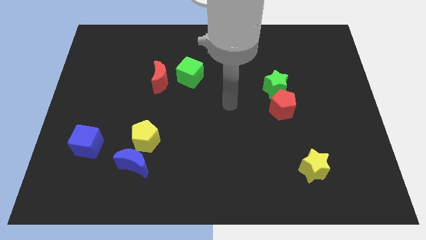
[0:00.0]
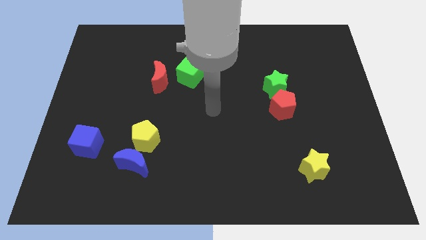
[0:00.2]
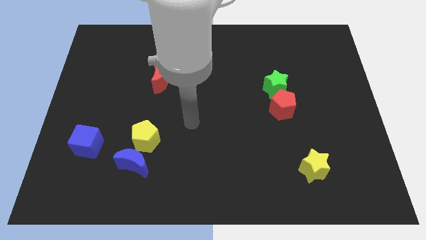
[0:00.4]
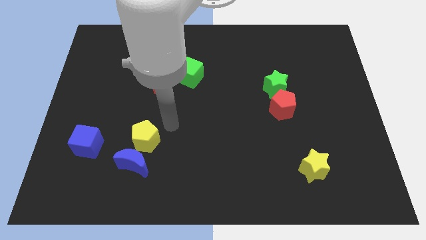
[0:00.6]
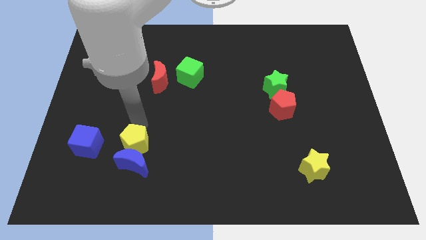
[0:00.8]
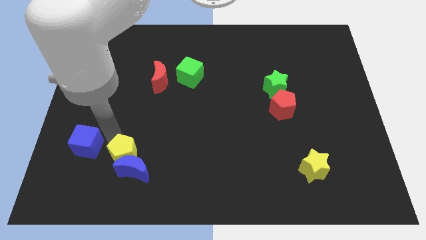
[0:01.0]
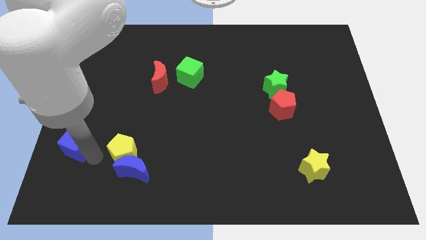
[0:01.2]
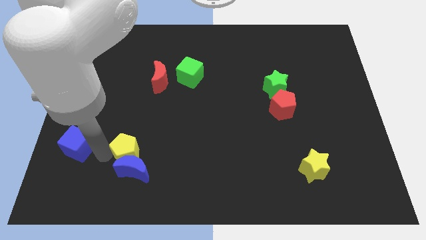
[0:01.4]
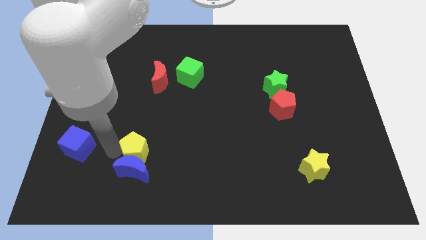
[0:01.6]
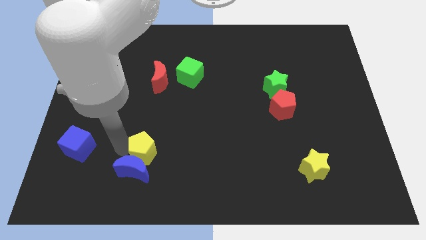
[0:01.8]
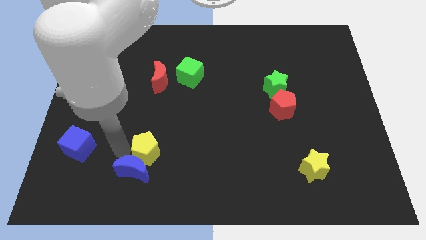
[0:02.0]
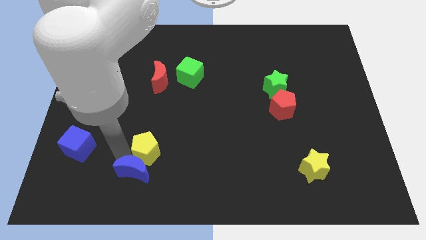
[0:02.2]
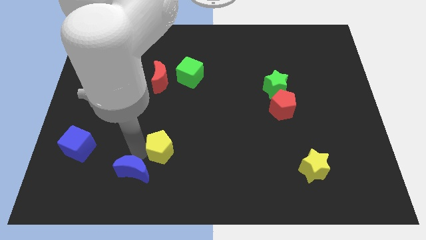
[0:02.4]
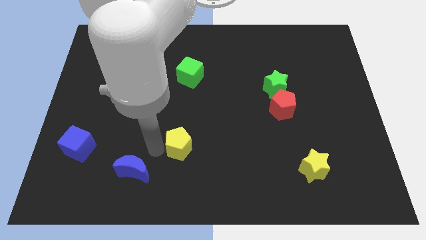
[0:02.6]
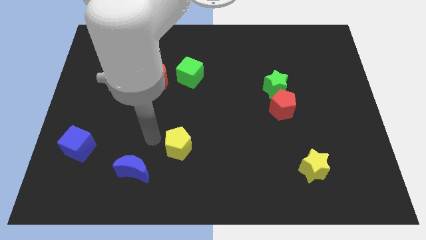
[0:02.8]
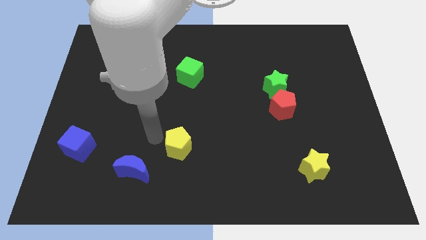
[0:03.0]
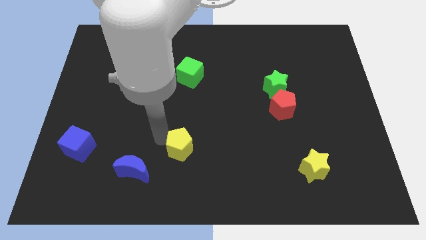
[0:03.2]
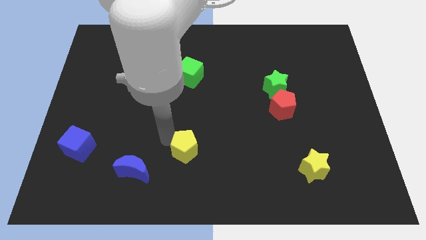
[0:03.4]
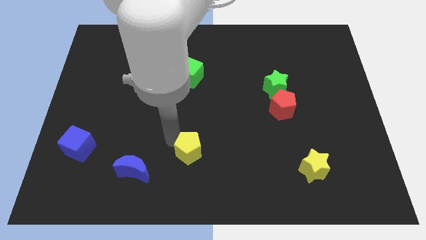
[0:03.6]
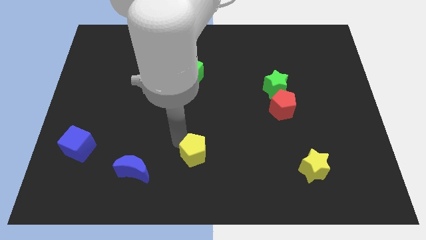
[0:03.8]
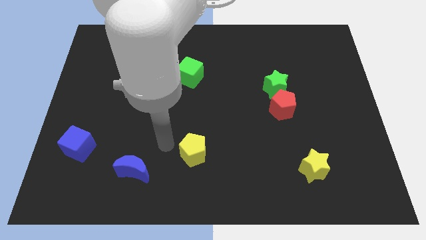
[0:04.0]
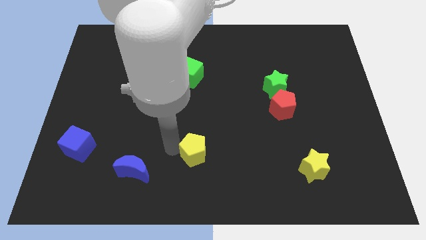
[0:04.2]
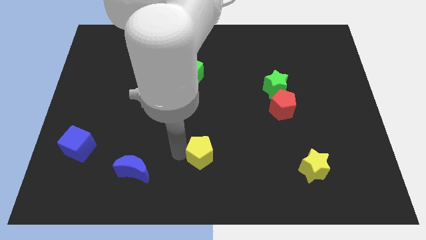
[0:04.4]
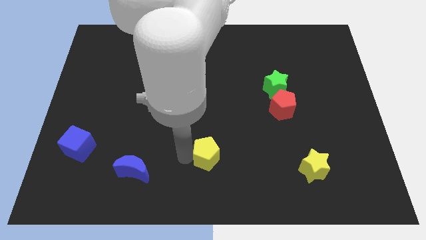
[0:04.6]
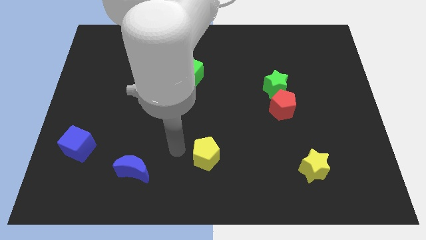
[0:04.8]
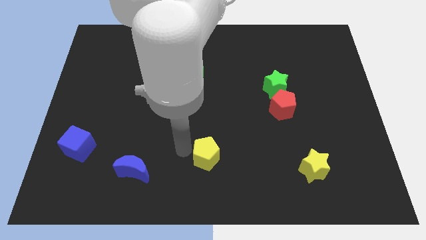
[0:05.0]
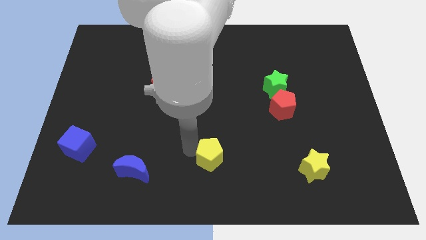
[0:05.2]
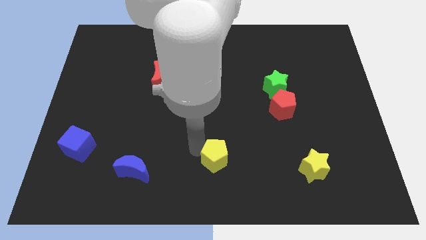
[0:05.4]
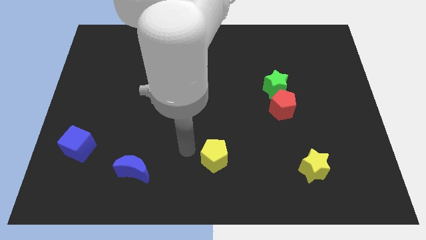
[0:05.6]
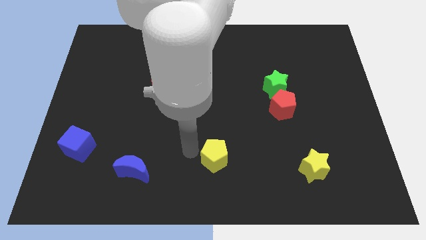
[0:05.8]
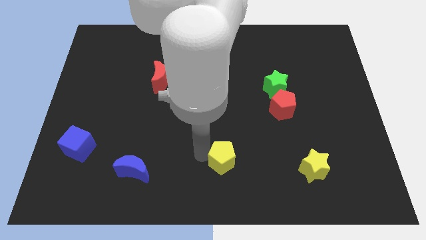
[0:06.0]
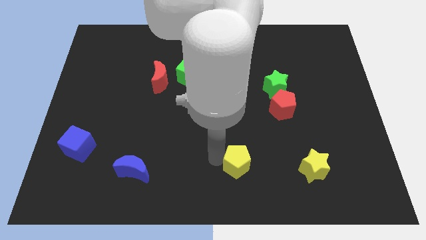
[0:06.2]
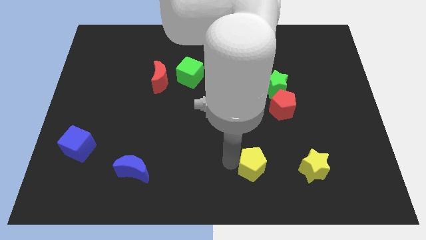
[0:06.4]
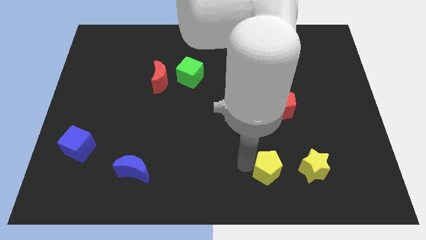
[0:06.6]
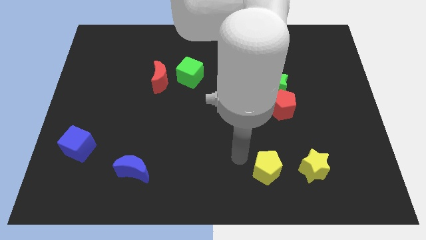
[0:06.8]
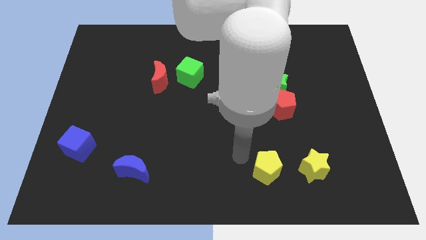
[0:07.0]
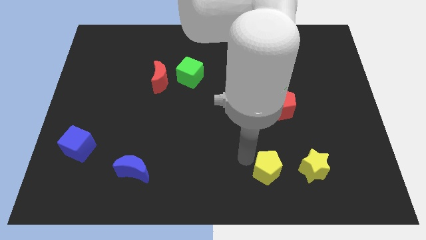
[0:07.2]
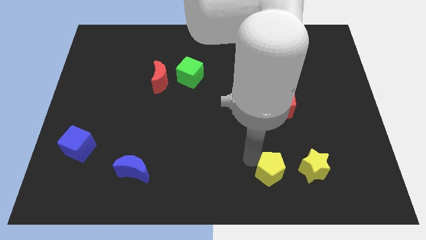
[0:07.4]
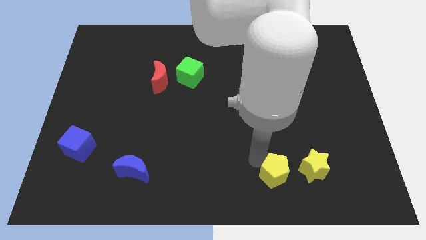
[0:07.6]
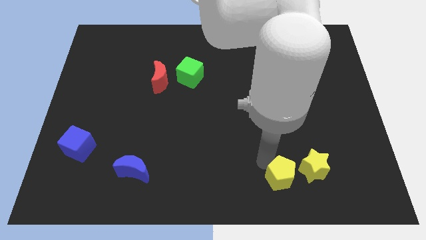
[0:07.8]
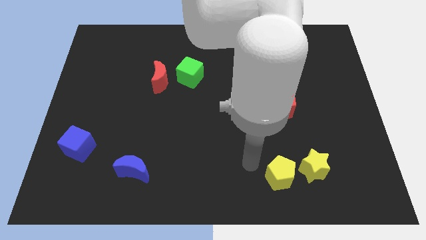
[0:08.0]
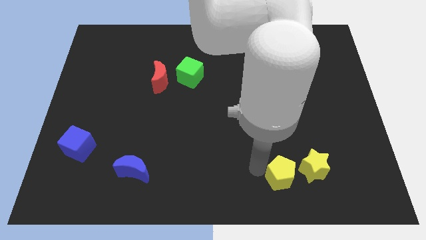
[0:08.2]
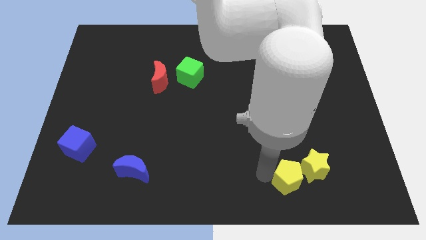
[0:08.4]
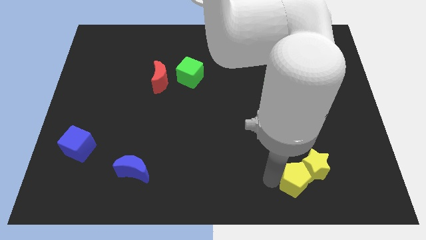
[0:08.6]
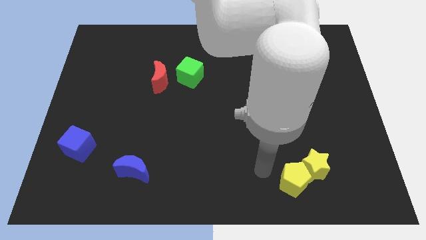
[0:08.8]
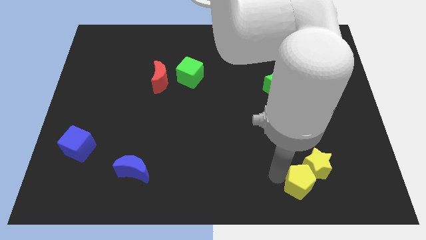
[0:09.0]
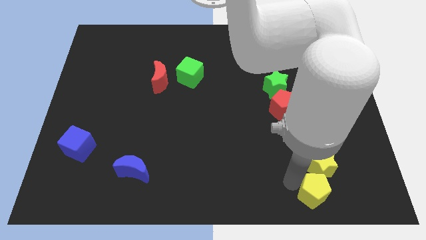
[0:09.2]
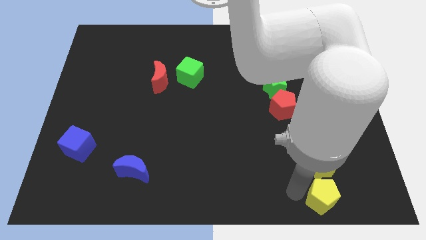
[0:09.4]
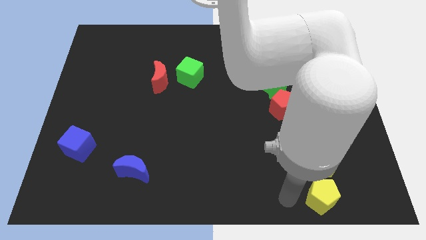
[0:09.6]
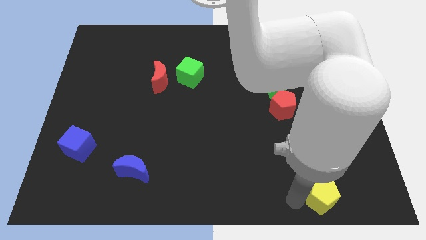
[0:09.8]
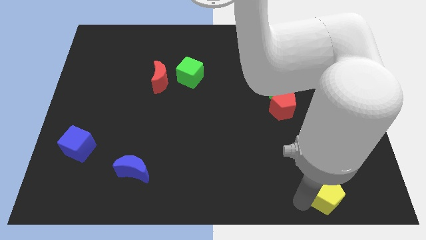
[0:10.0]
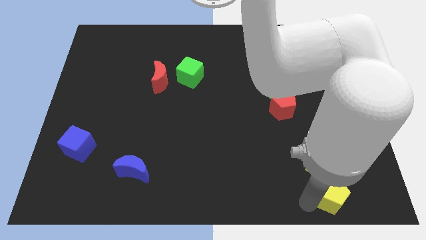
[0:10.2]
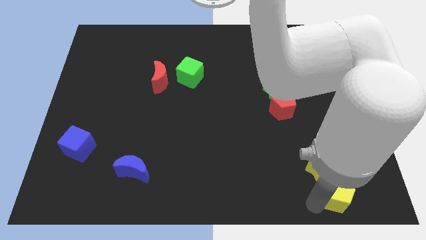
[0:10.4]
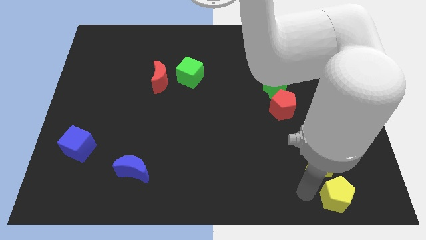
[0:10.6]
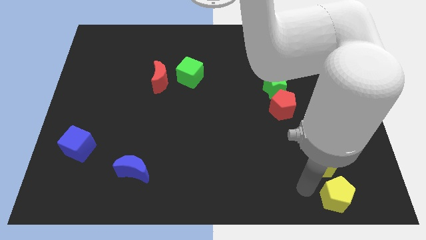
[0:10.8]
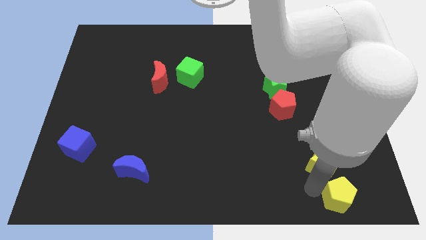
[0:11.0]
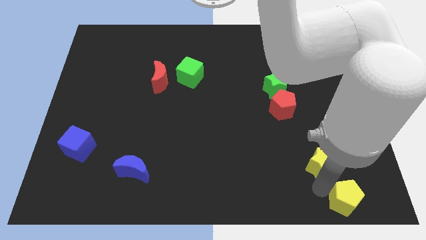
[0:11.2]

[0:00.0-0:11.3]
push the yellow pentagon to the bottom right of the board
